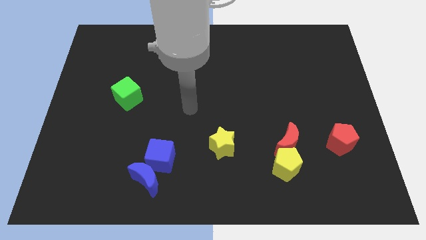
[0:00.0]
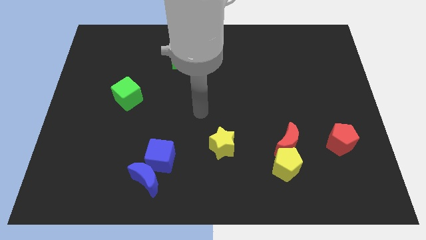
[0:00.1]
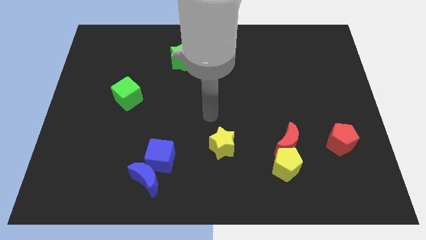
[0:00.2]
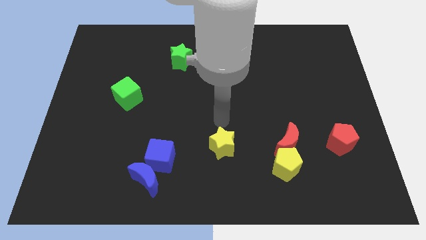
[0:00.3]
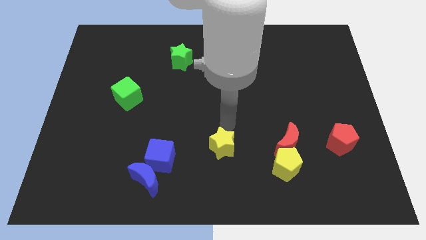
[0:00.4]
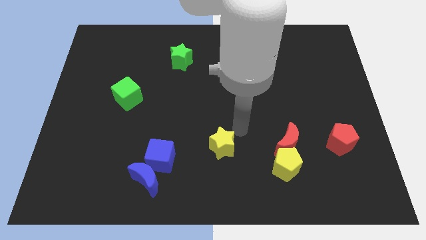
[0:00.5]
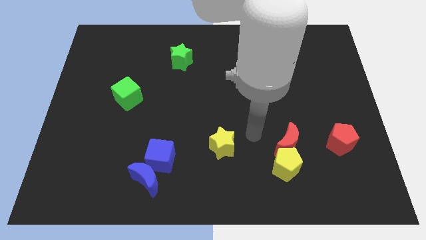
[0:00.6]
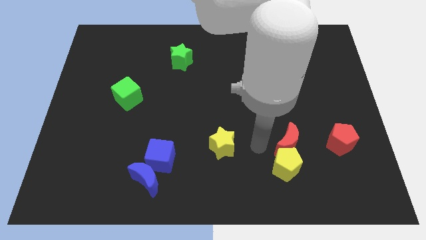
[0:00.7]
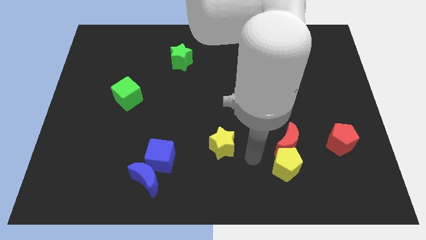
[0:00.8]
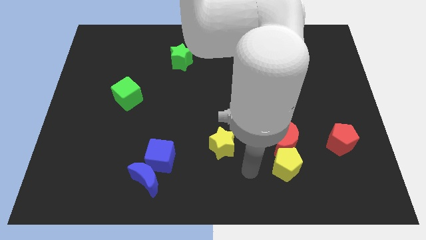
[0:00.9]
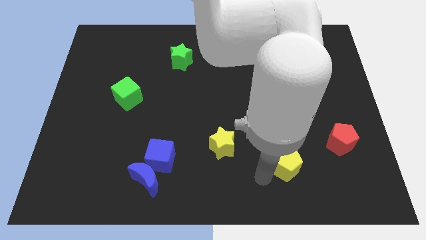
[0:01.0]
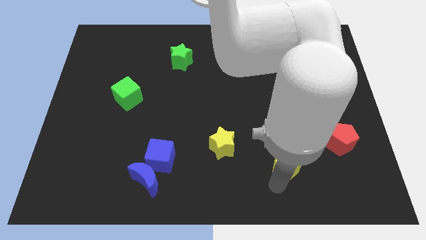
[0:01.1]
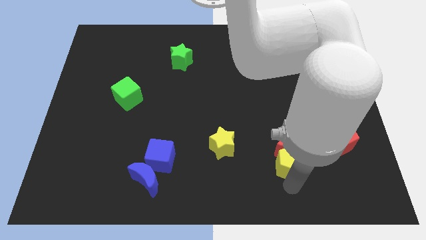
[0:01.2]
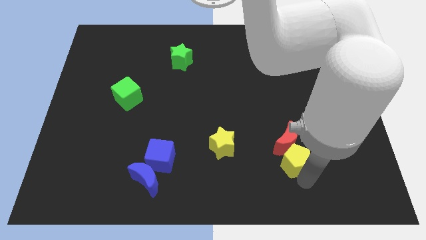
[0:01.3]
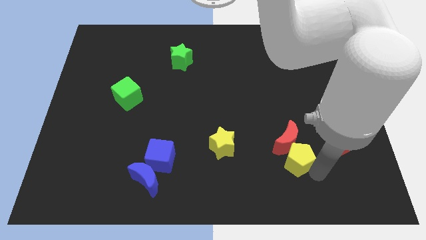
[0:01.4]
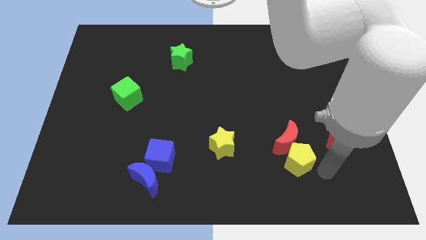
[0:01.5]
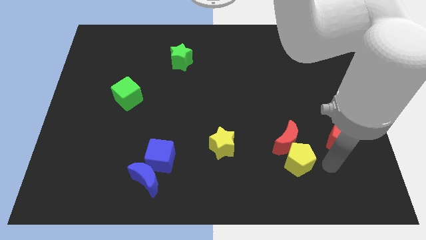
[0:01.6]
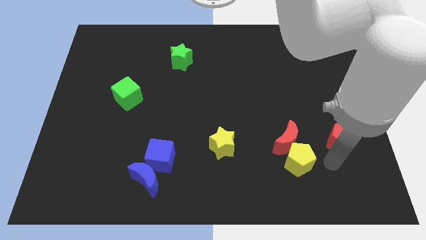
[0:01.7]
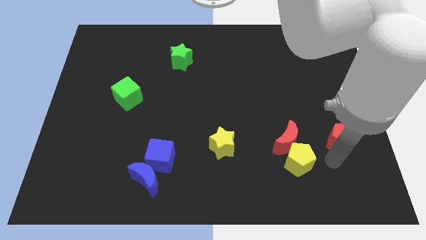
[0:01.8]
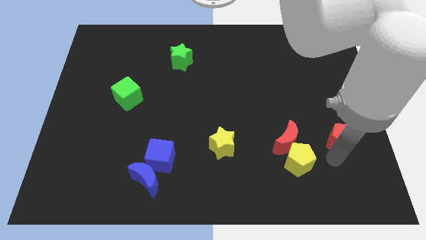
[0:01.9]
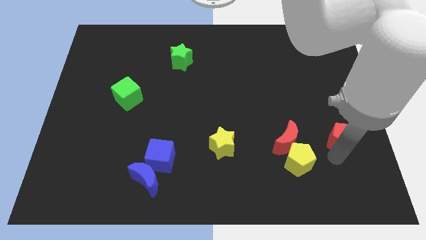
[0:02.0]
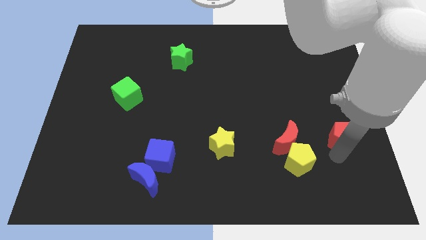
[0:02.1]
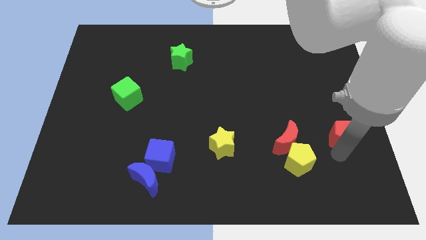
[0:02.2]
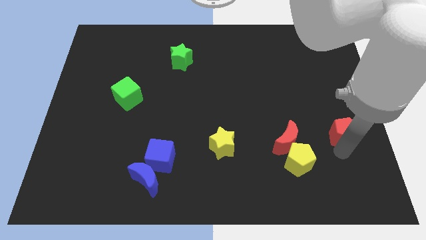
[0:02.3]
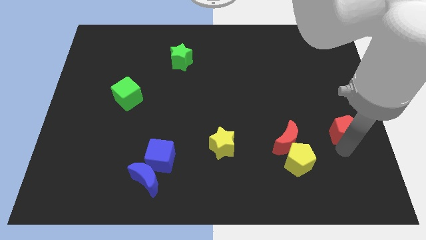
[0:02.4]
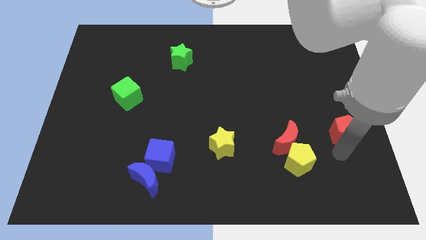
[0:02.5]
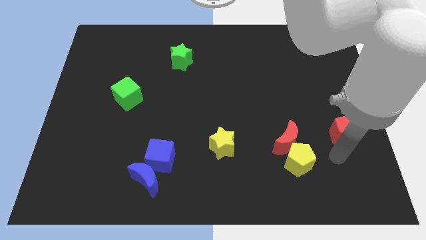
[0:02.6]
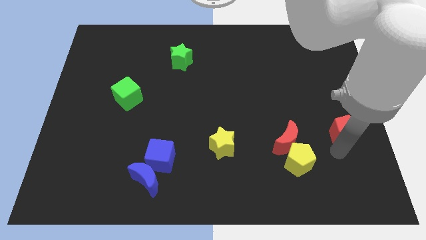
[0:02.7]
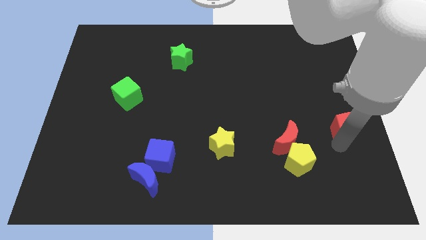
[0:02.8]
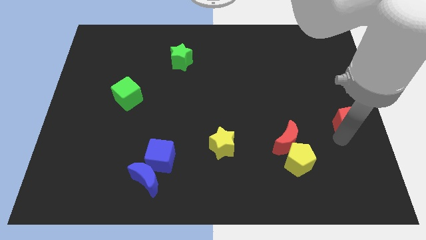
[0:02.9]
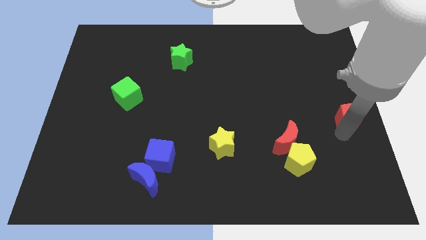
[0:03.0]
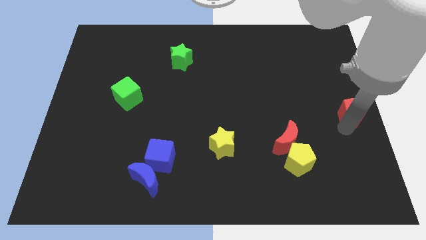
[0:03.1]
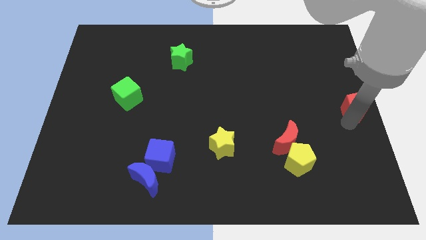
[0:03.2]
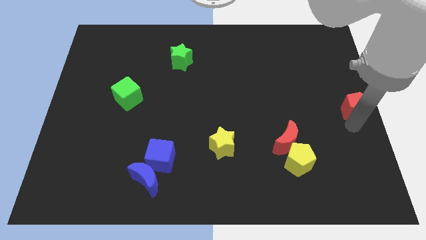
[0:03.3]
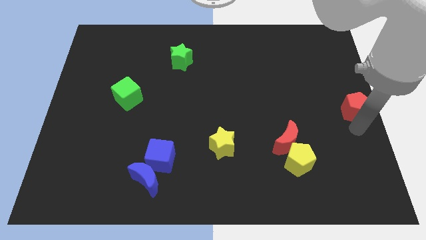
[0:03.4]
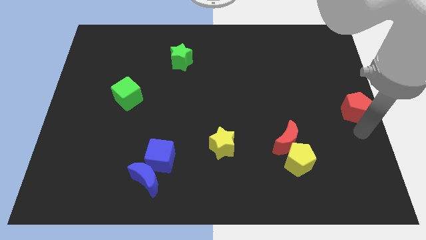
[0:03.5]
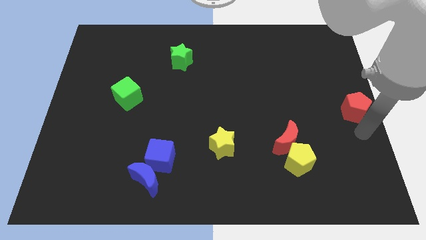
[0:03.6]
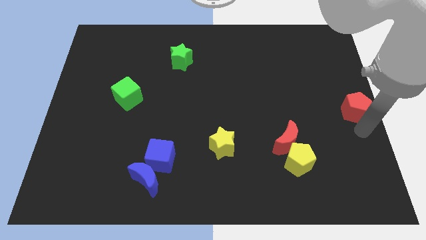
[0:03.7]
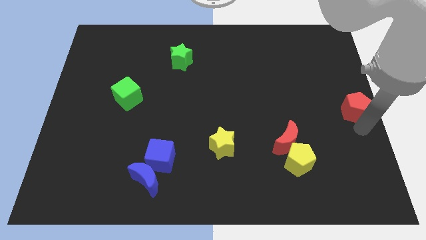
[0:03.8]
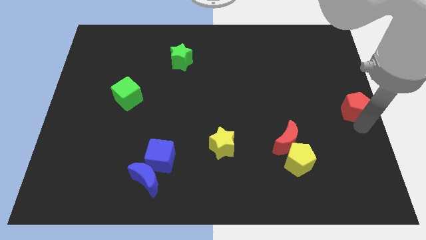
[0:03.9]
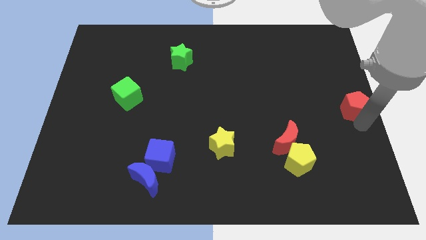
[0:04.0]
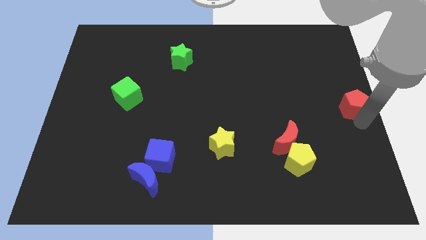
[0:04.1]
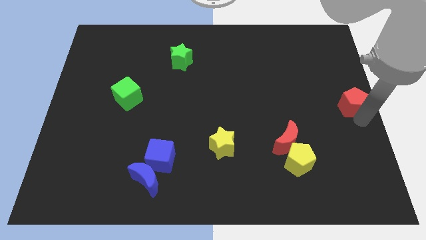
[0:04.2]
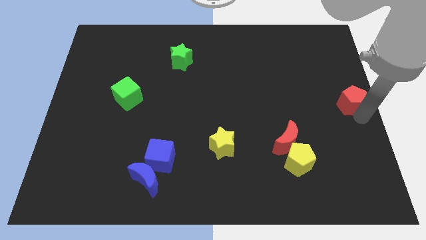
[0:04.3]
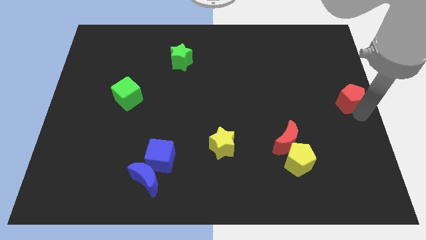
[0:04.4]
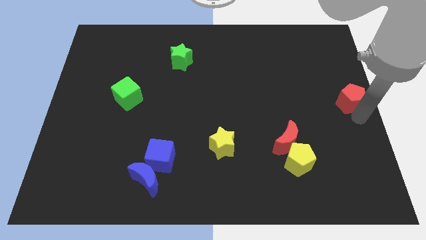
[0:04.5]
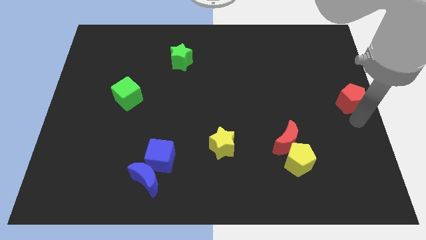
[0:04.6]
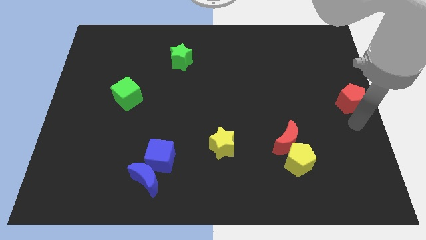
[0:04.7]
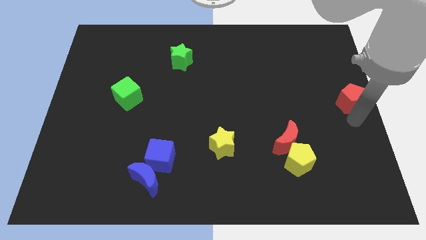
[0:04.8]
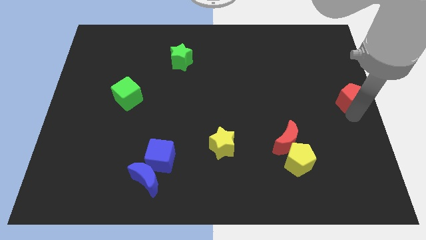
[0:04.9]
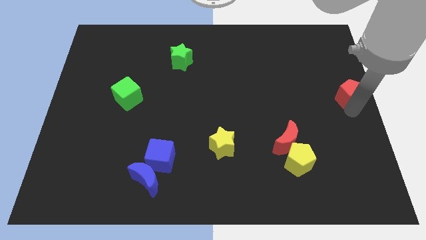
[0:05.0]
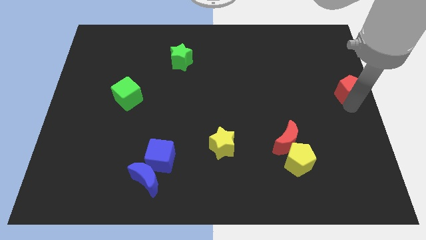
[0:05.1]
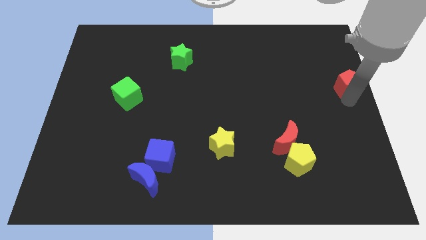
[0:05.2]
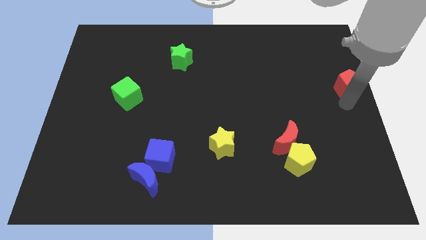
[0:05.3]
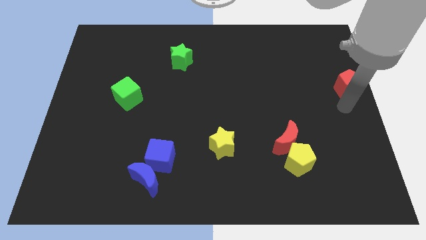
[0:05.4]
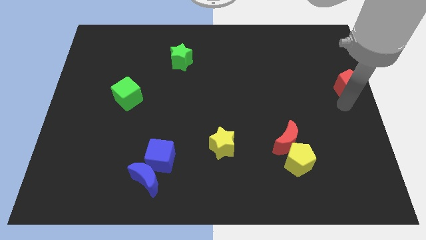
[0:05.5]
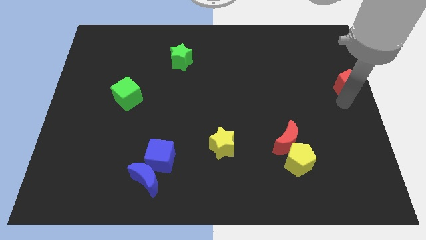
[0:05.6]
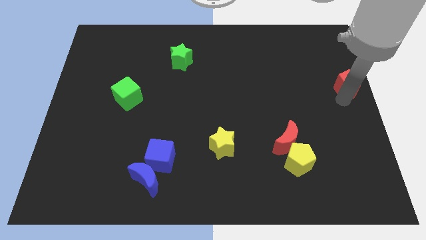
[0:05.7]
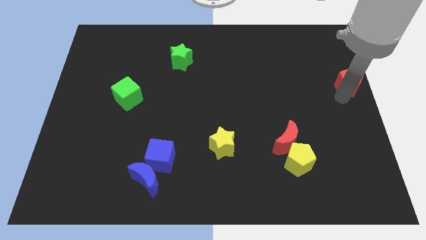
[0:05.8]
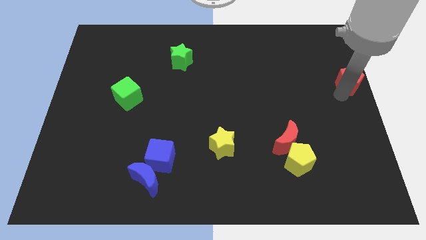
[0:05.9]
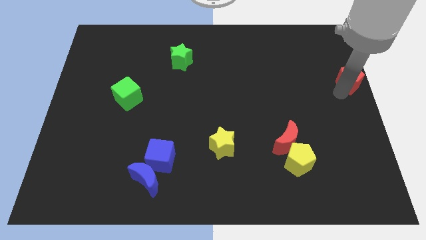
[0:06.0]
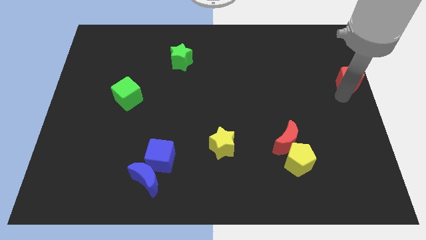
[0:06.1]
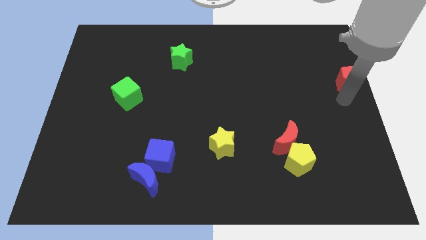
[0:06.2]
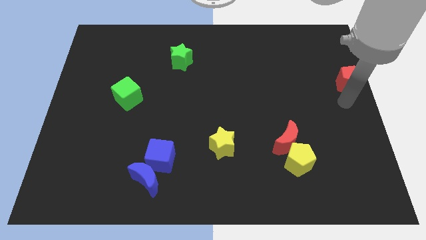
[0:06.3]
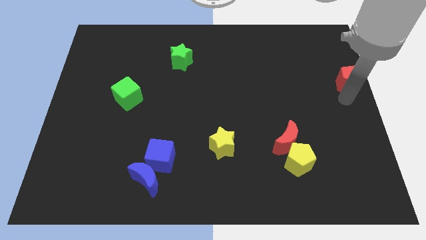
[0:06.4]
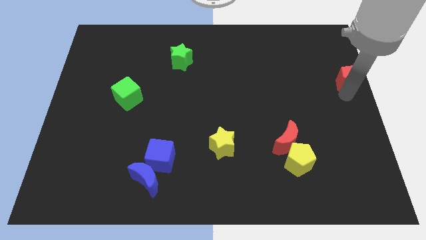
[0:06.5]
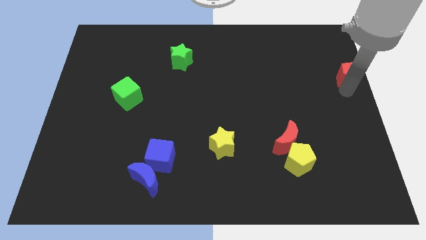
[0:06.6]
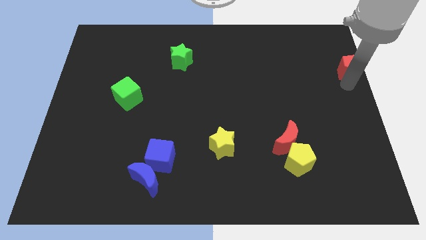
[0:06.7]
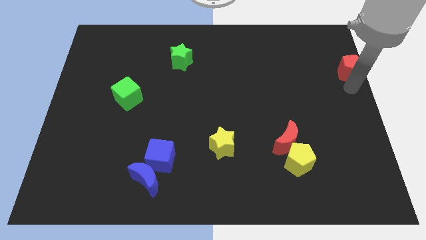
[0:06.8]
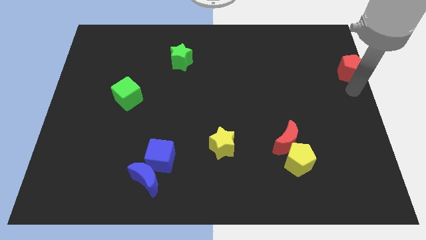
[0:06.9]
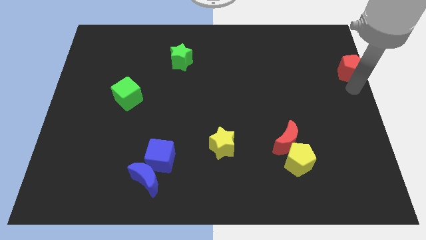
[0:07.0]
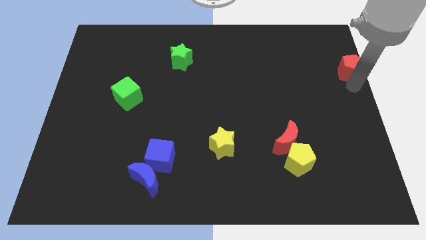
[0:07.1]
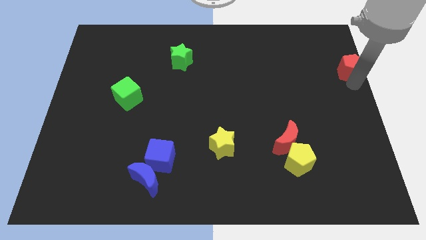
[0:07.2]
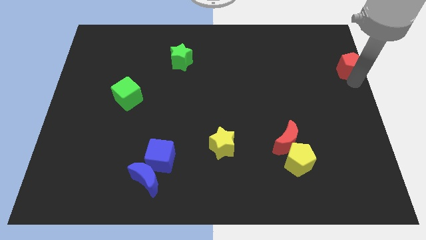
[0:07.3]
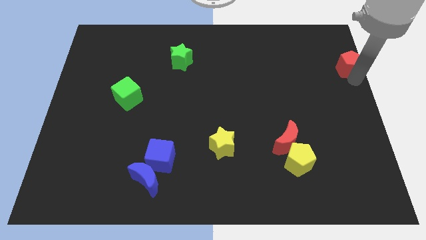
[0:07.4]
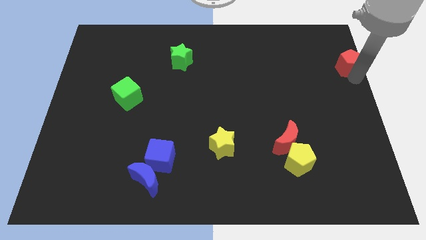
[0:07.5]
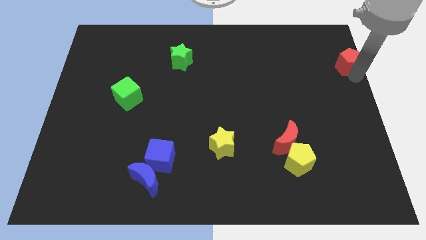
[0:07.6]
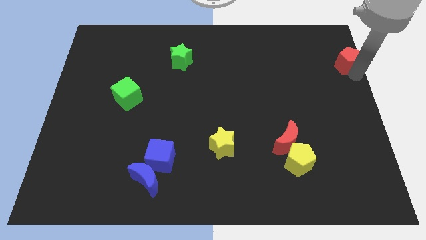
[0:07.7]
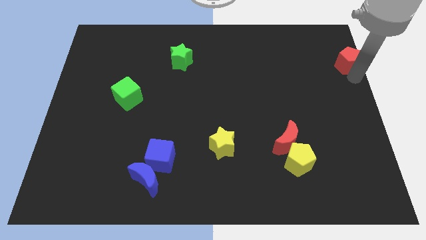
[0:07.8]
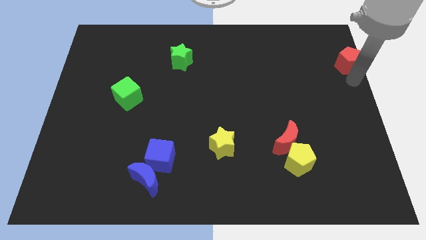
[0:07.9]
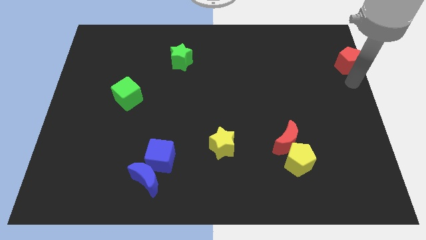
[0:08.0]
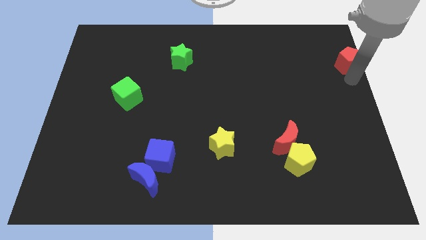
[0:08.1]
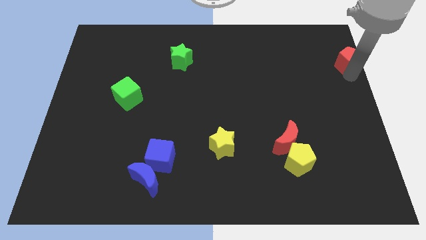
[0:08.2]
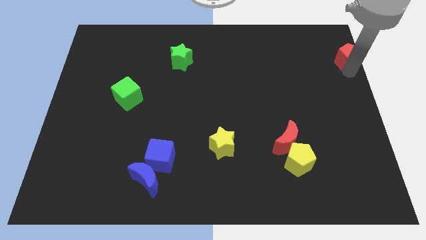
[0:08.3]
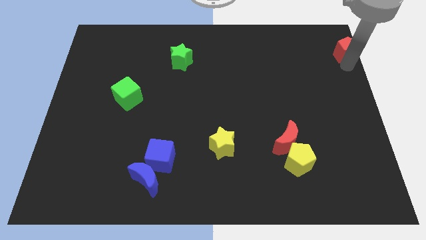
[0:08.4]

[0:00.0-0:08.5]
move the red pentagon to the upper right corner
